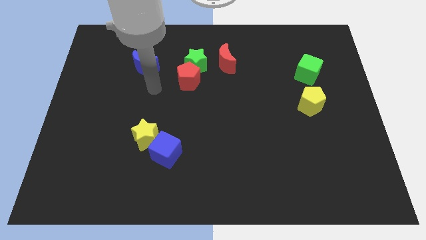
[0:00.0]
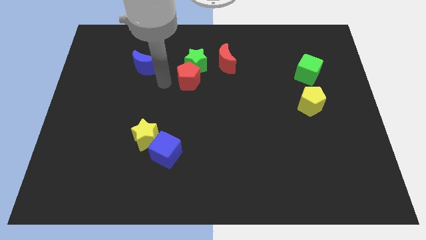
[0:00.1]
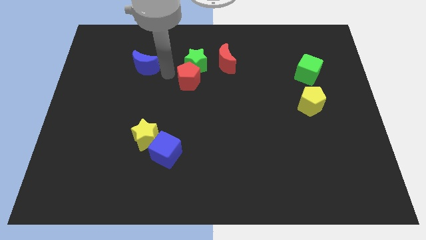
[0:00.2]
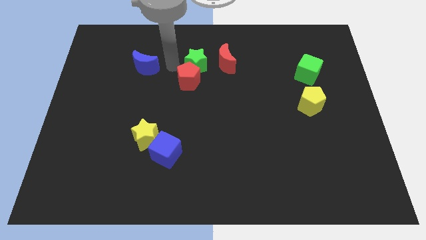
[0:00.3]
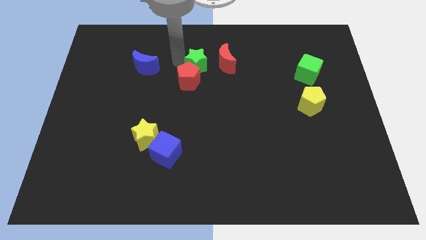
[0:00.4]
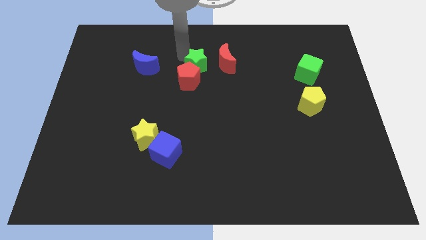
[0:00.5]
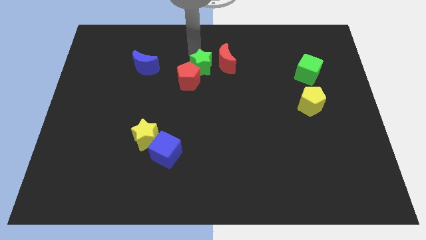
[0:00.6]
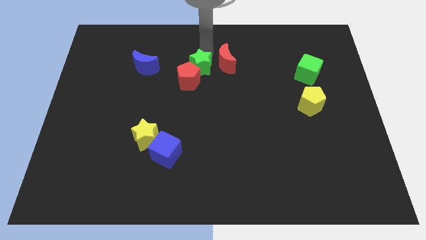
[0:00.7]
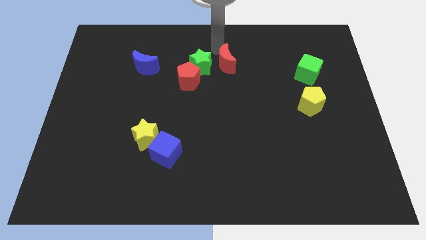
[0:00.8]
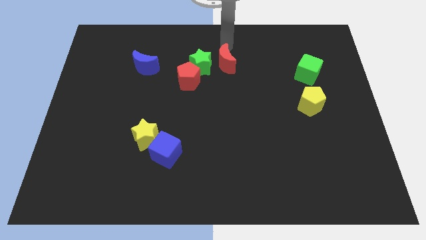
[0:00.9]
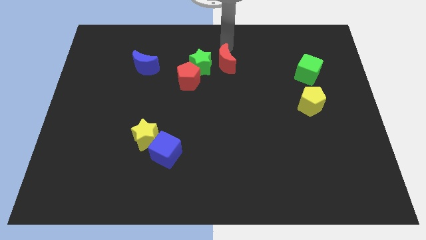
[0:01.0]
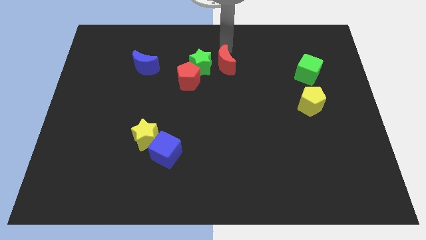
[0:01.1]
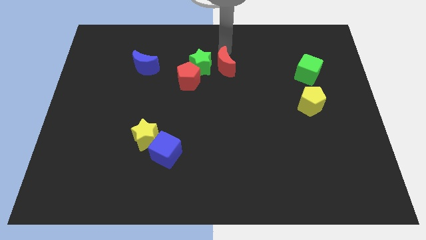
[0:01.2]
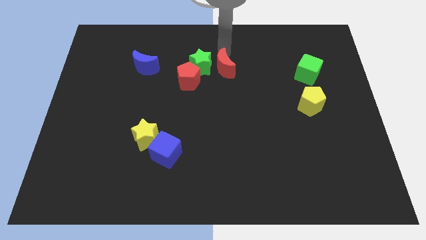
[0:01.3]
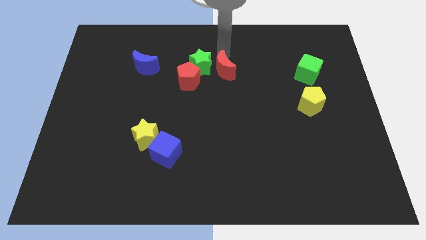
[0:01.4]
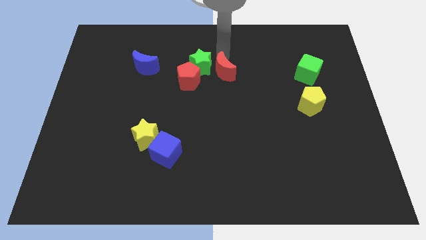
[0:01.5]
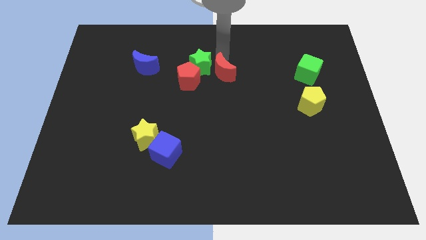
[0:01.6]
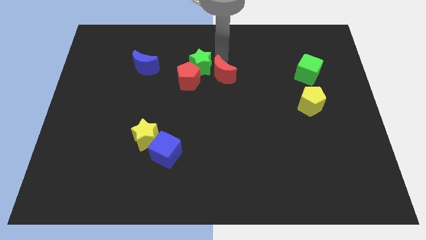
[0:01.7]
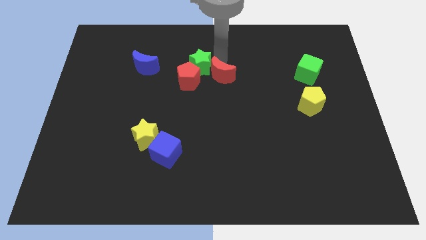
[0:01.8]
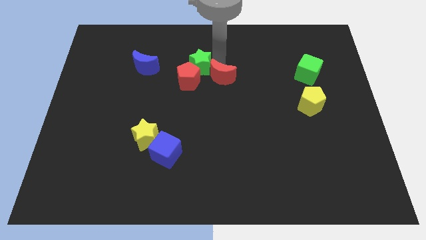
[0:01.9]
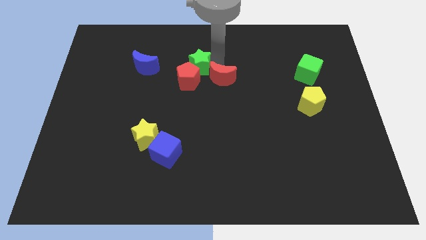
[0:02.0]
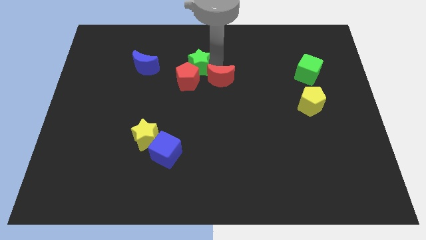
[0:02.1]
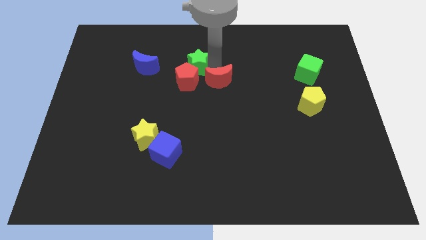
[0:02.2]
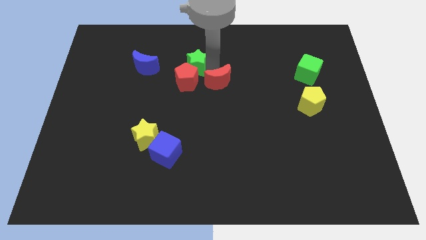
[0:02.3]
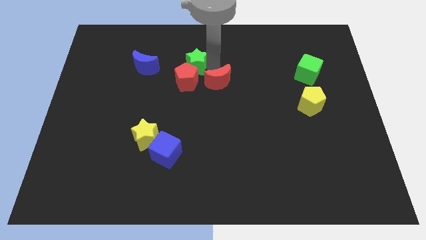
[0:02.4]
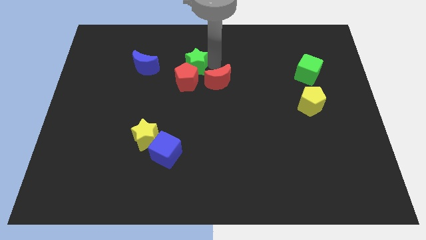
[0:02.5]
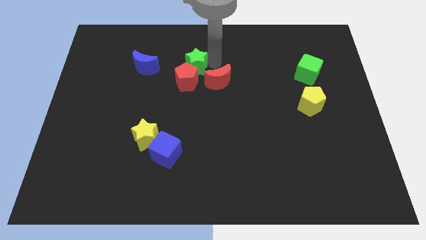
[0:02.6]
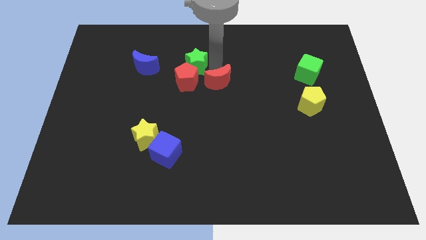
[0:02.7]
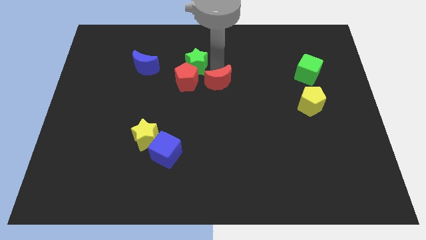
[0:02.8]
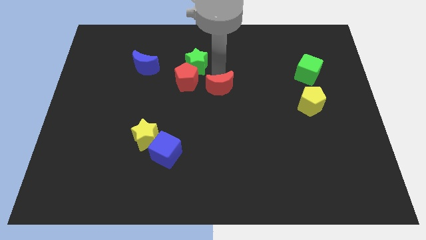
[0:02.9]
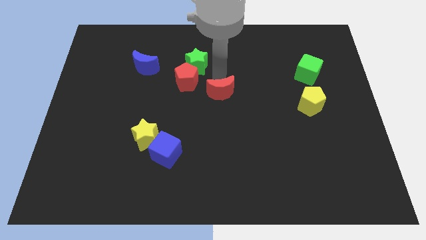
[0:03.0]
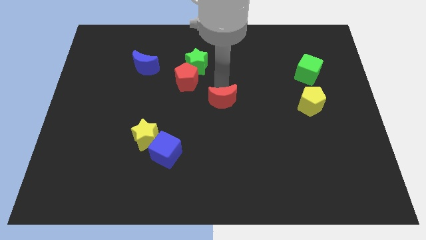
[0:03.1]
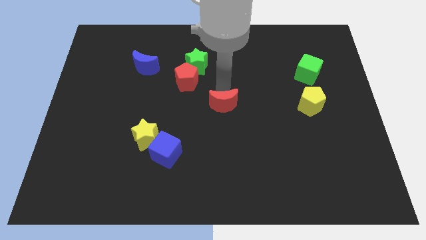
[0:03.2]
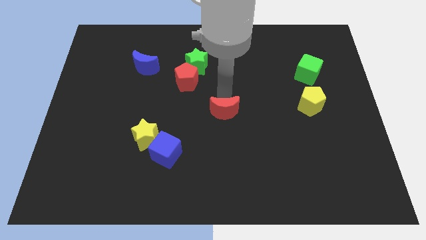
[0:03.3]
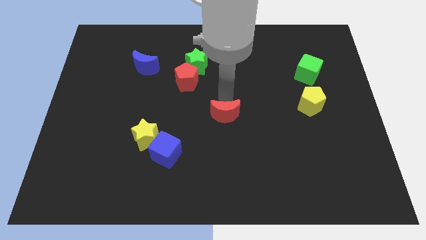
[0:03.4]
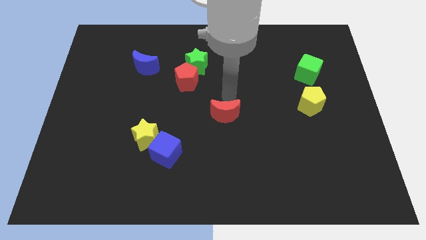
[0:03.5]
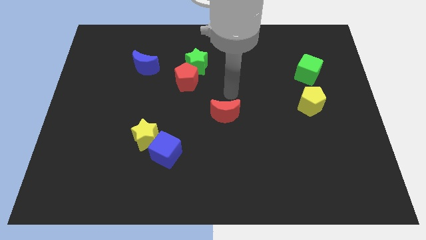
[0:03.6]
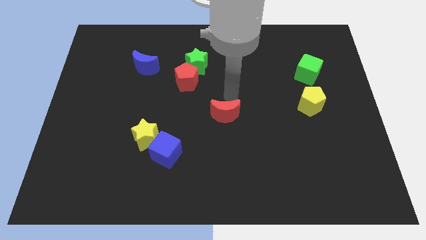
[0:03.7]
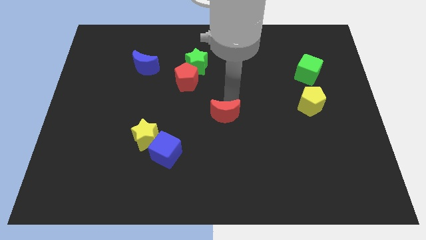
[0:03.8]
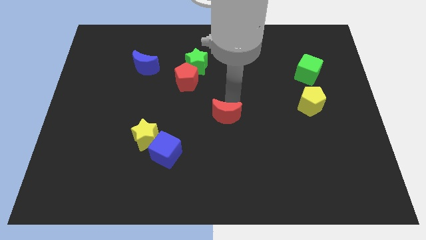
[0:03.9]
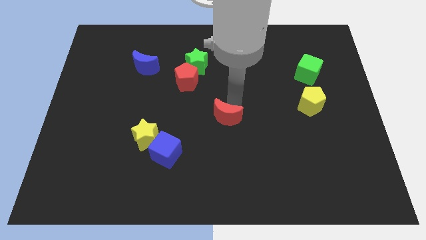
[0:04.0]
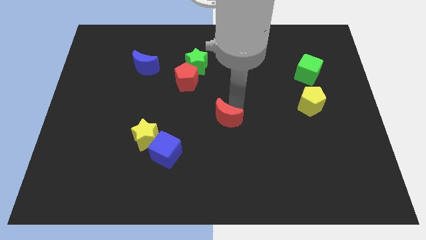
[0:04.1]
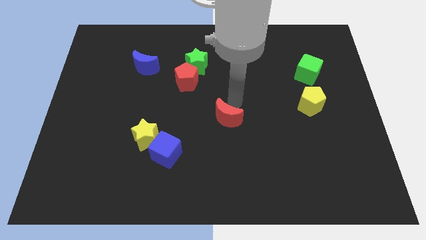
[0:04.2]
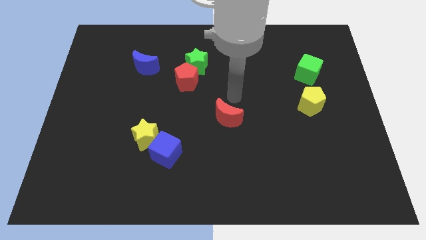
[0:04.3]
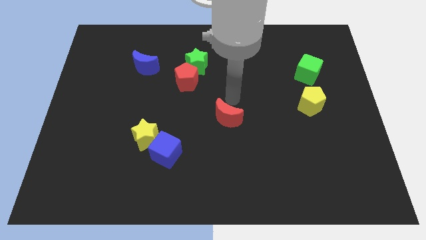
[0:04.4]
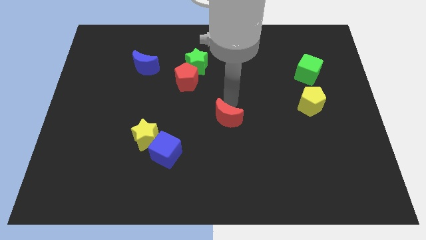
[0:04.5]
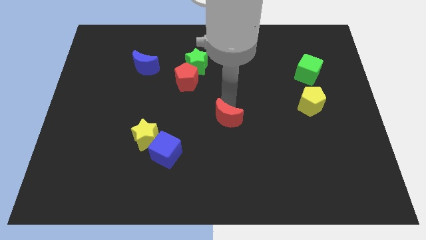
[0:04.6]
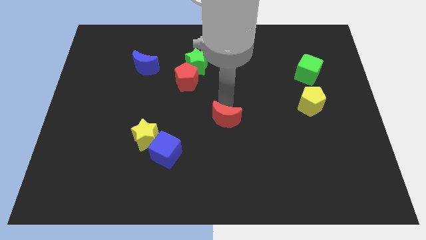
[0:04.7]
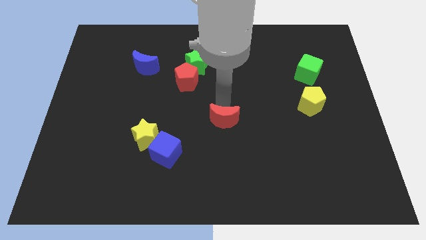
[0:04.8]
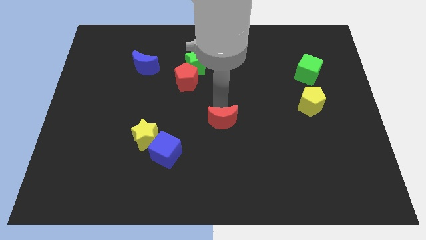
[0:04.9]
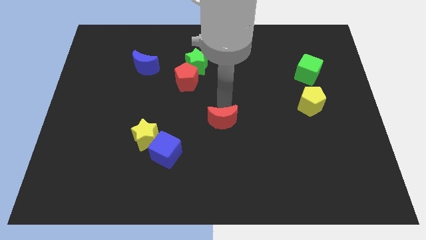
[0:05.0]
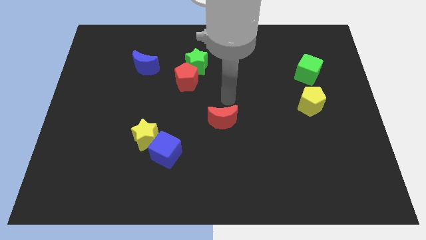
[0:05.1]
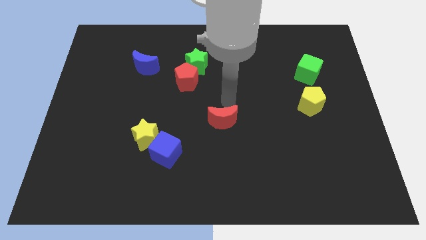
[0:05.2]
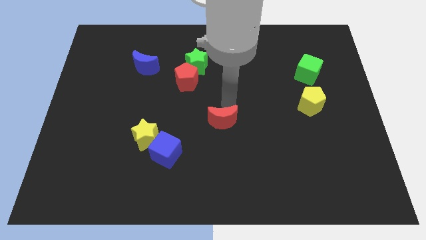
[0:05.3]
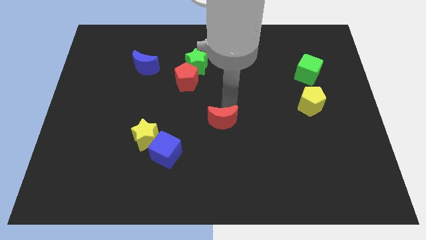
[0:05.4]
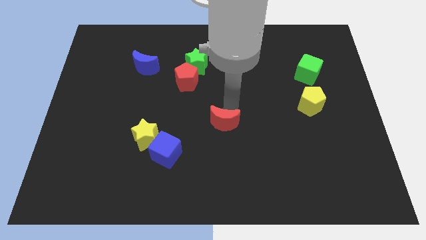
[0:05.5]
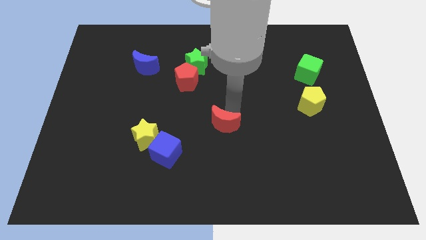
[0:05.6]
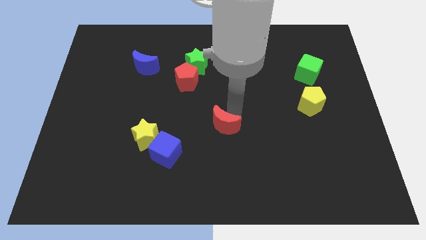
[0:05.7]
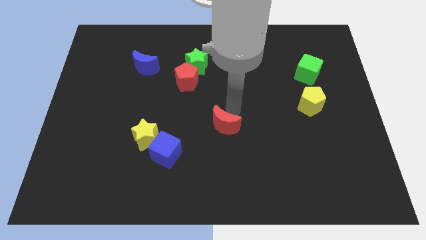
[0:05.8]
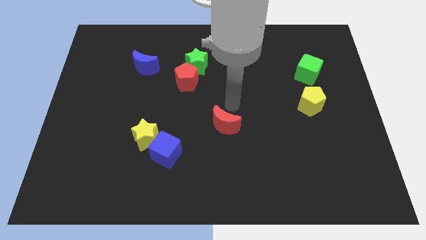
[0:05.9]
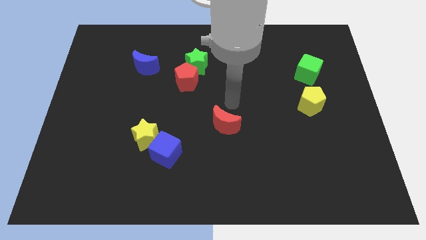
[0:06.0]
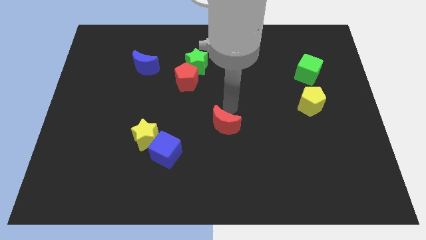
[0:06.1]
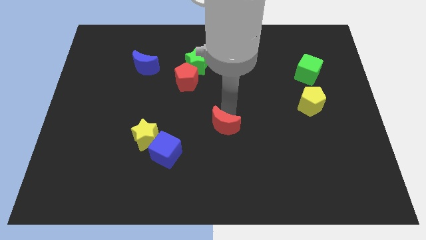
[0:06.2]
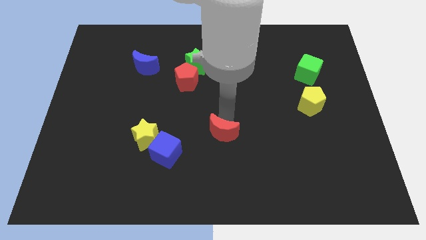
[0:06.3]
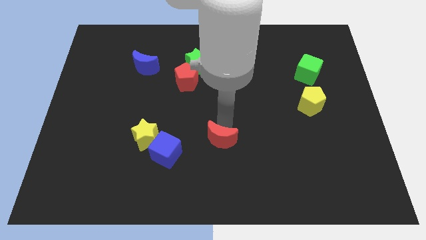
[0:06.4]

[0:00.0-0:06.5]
put the red moon right of the blue cube

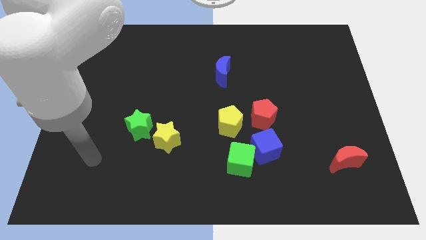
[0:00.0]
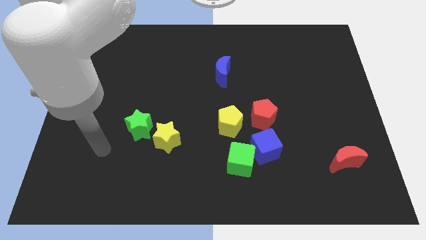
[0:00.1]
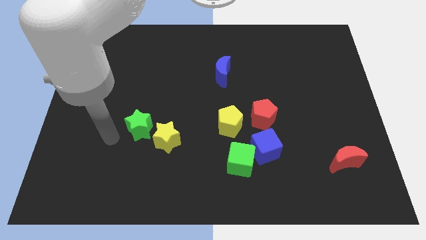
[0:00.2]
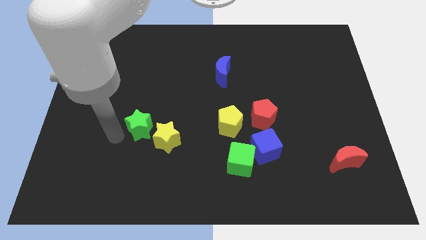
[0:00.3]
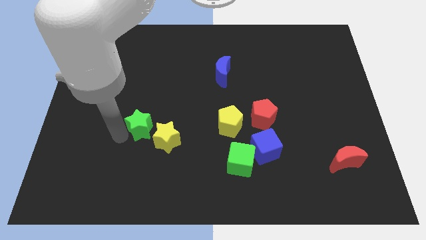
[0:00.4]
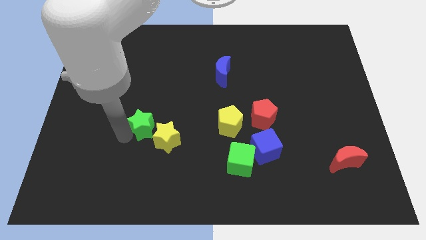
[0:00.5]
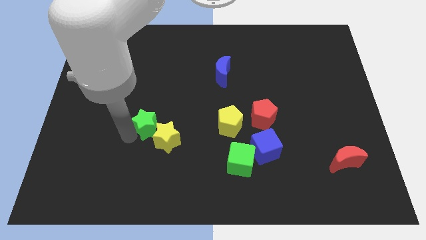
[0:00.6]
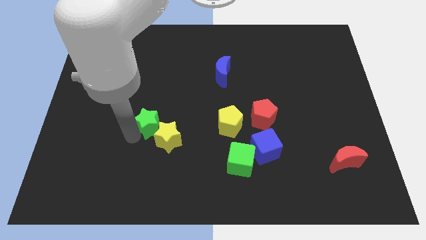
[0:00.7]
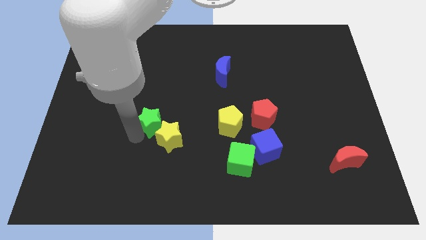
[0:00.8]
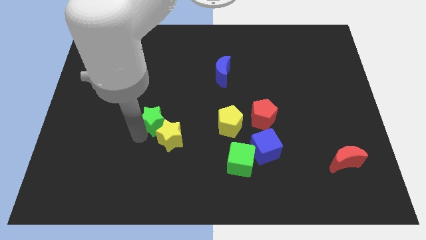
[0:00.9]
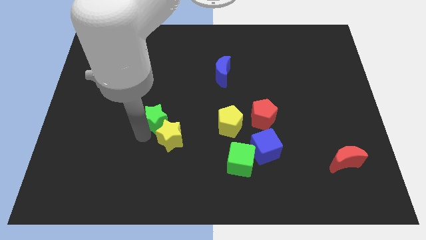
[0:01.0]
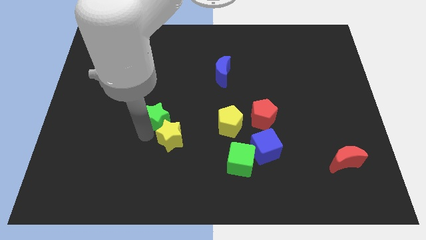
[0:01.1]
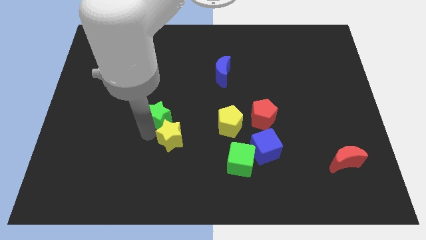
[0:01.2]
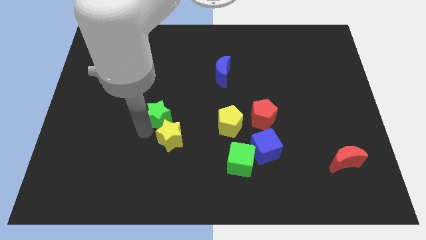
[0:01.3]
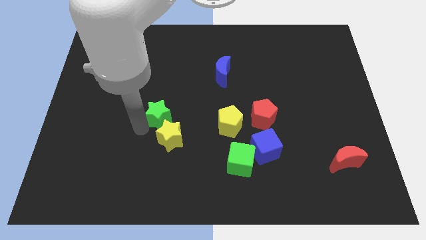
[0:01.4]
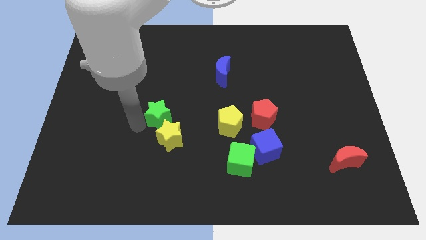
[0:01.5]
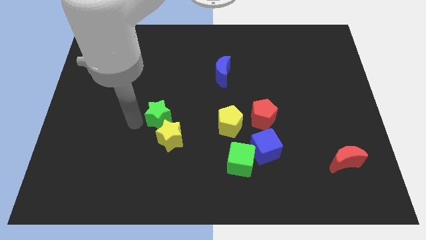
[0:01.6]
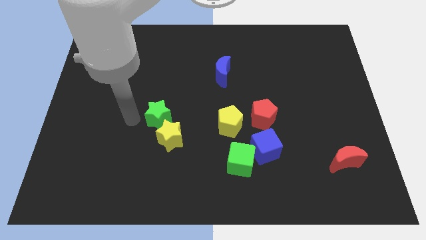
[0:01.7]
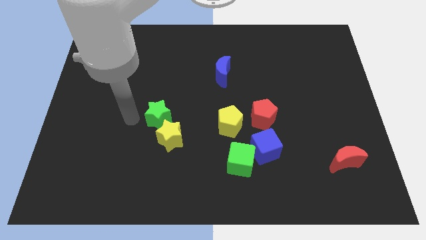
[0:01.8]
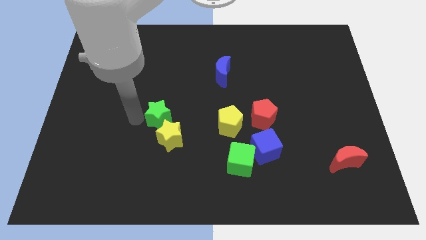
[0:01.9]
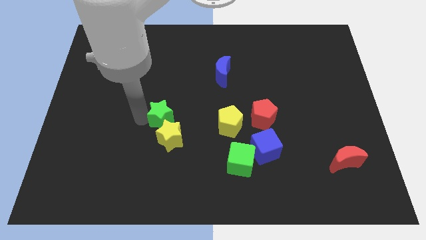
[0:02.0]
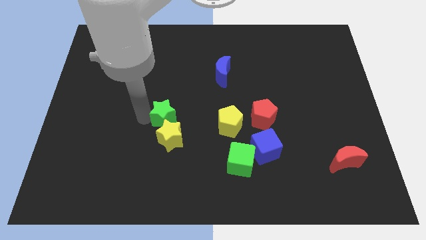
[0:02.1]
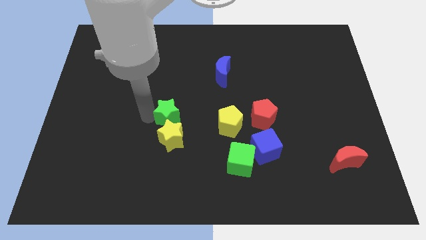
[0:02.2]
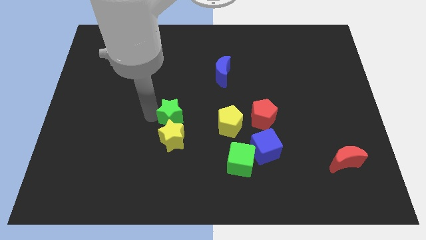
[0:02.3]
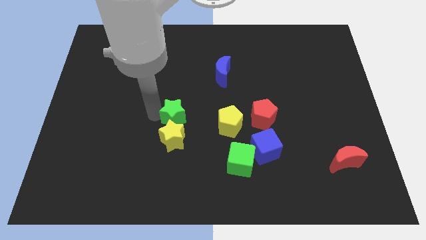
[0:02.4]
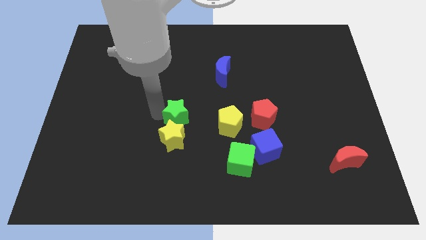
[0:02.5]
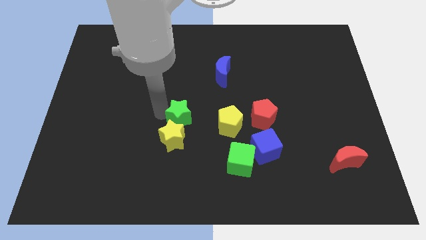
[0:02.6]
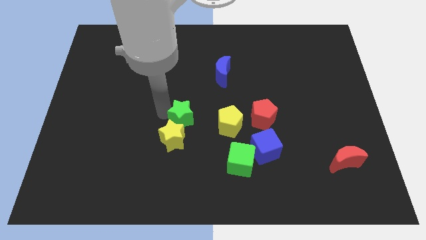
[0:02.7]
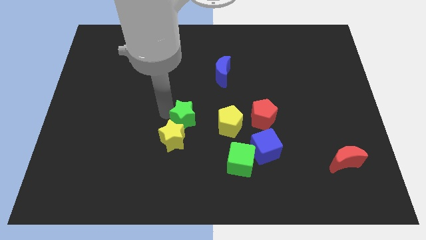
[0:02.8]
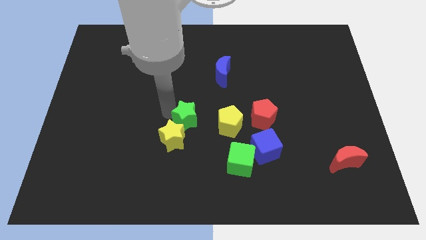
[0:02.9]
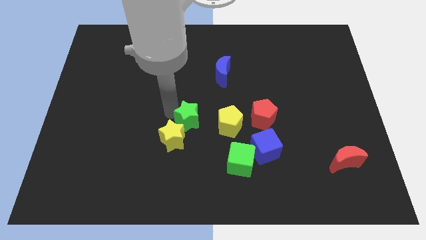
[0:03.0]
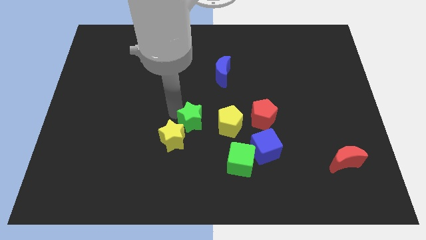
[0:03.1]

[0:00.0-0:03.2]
push the green star just right of the yellow star
